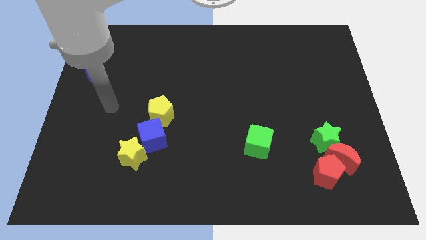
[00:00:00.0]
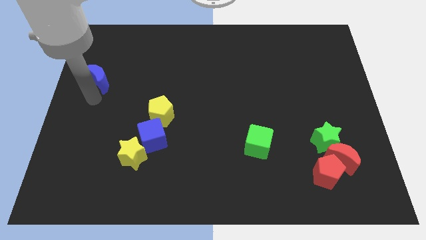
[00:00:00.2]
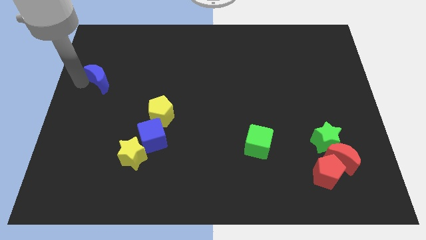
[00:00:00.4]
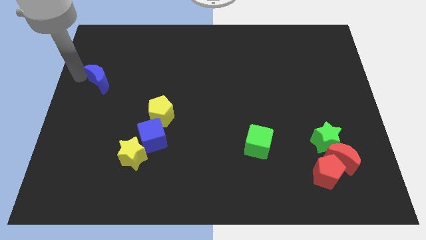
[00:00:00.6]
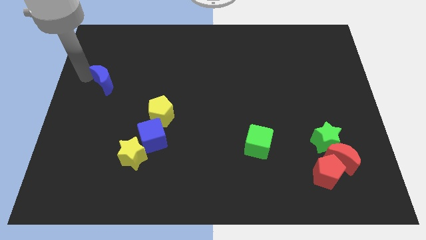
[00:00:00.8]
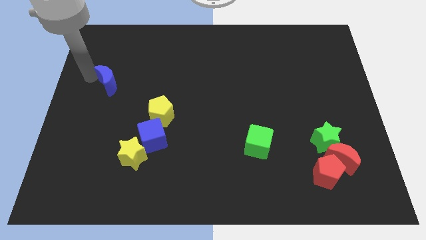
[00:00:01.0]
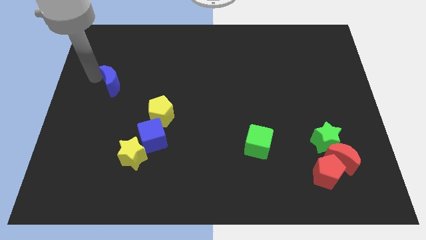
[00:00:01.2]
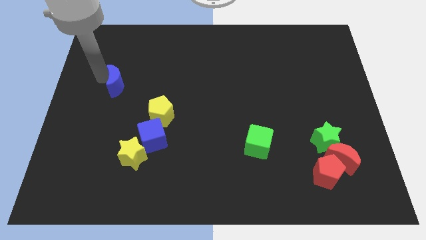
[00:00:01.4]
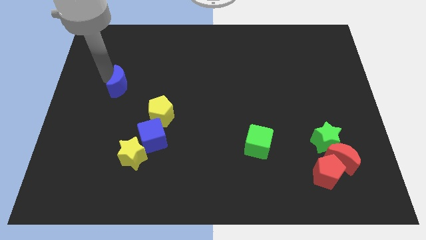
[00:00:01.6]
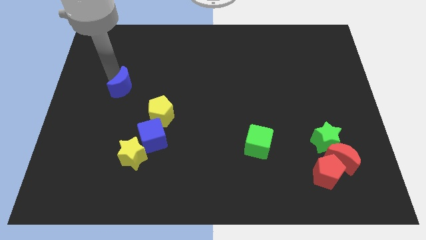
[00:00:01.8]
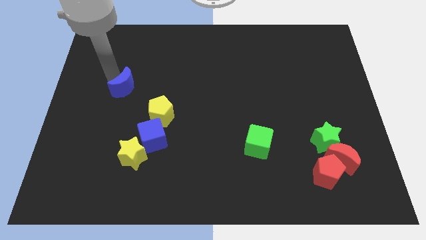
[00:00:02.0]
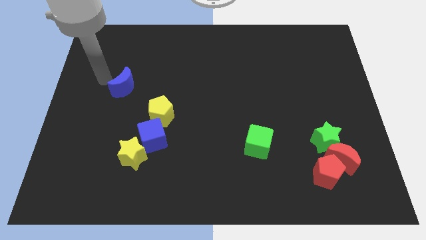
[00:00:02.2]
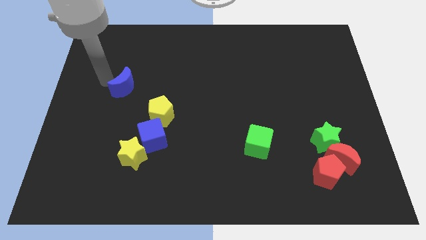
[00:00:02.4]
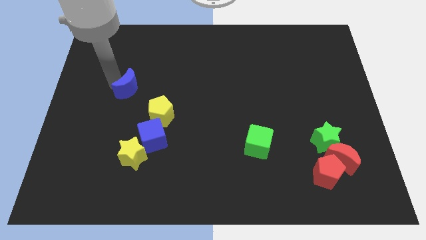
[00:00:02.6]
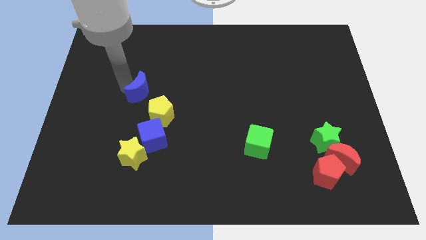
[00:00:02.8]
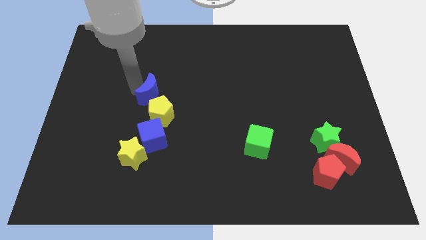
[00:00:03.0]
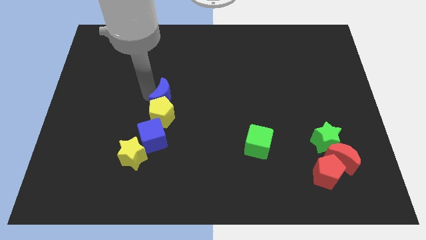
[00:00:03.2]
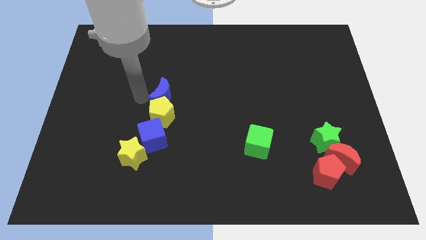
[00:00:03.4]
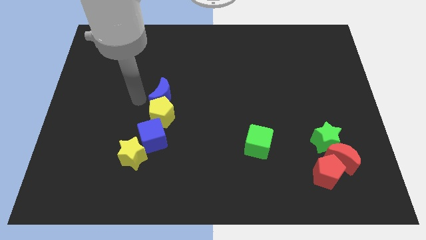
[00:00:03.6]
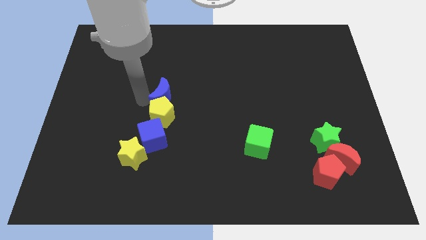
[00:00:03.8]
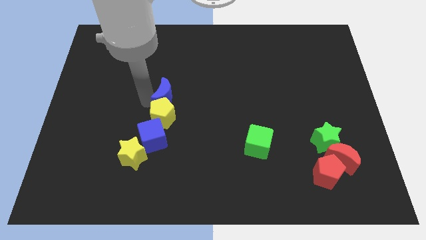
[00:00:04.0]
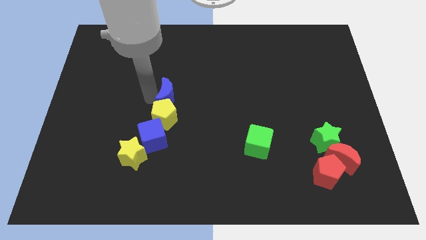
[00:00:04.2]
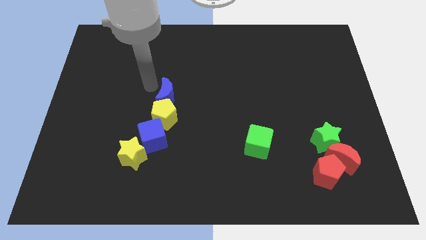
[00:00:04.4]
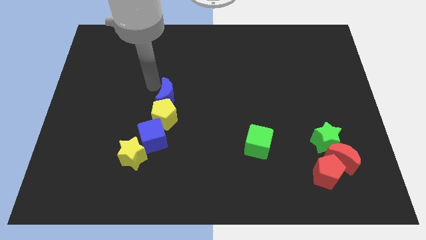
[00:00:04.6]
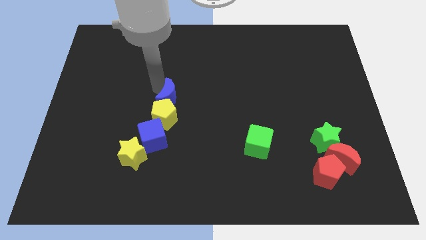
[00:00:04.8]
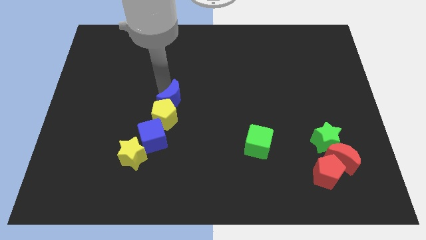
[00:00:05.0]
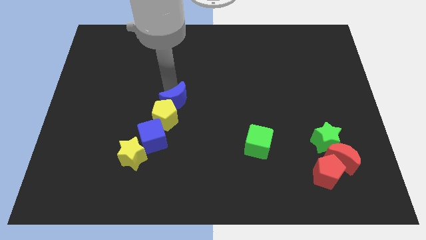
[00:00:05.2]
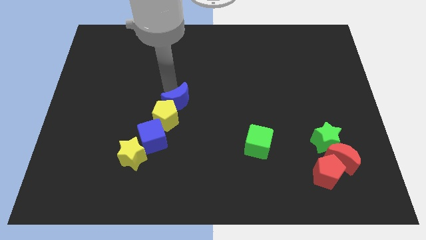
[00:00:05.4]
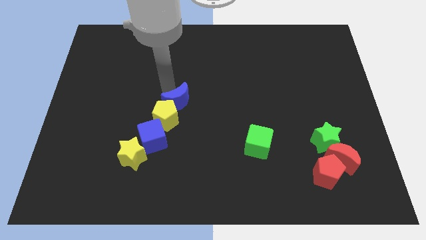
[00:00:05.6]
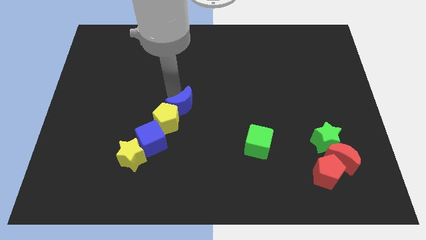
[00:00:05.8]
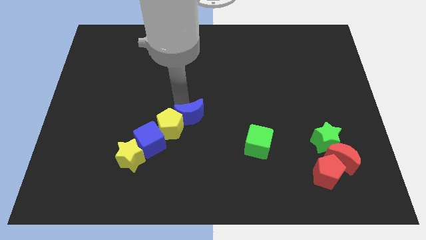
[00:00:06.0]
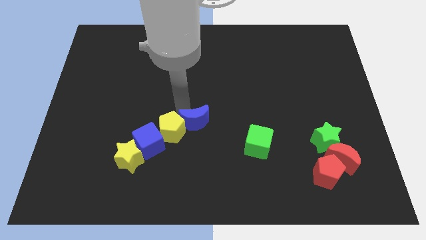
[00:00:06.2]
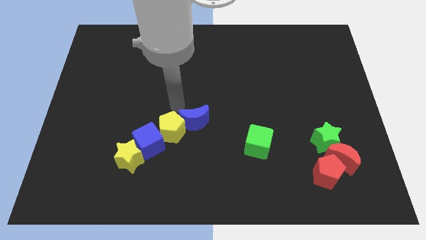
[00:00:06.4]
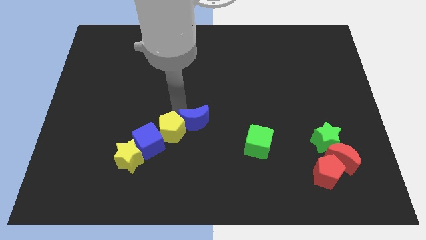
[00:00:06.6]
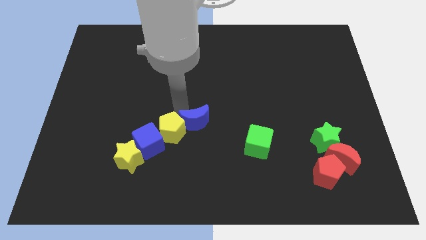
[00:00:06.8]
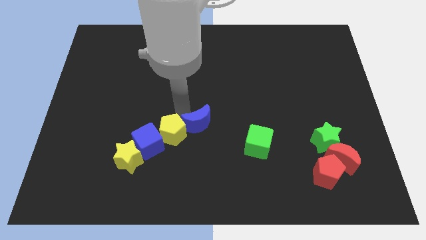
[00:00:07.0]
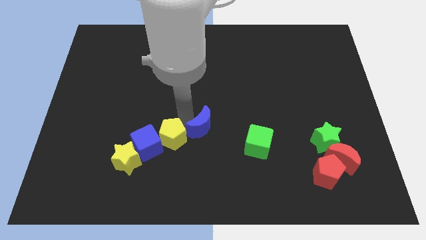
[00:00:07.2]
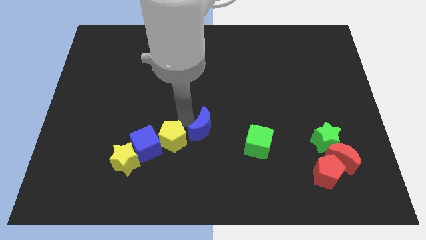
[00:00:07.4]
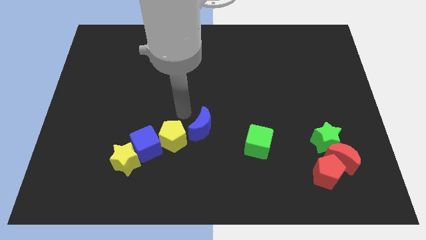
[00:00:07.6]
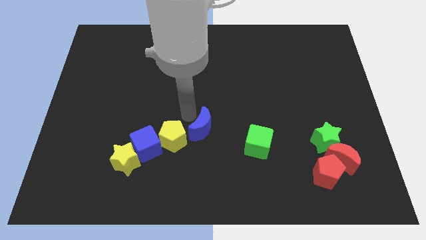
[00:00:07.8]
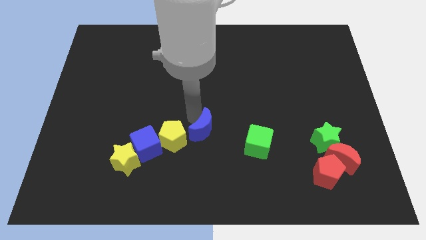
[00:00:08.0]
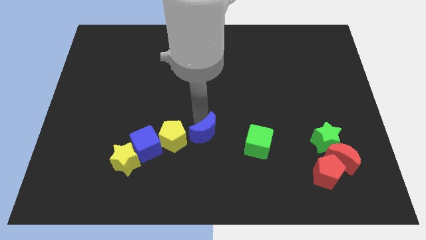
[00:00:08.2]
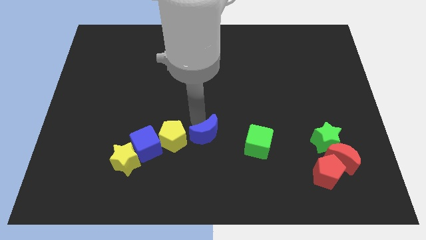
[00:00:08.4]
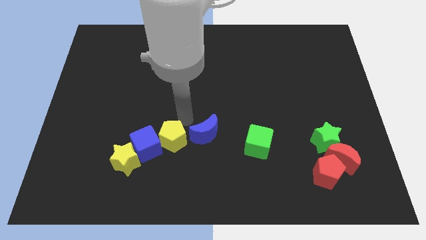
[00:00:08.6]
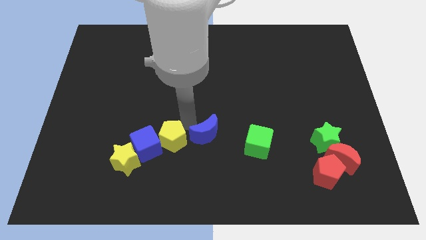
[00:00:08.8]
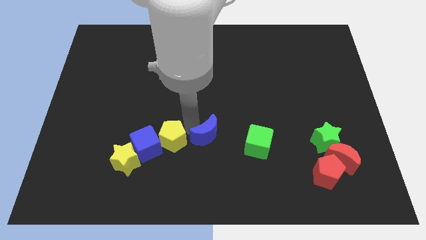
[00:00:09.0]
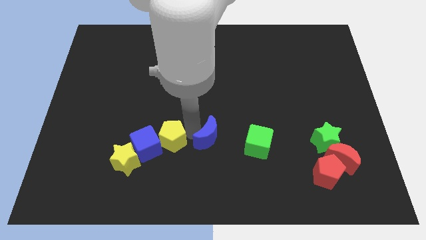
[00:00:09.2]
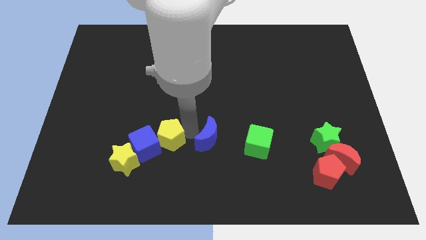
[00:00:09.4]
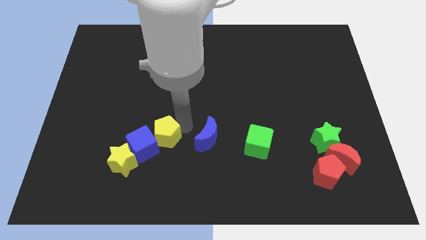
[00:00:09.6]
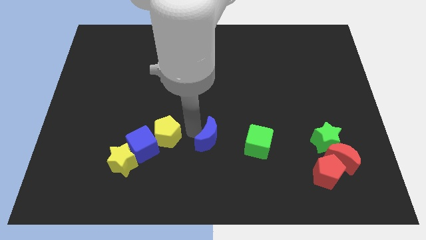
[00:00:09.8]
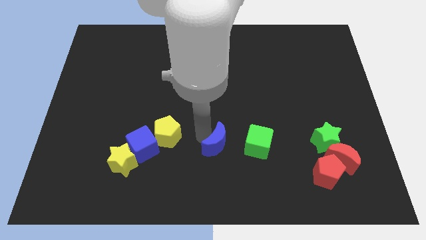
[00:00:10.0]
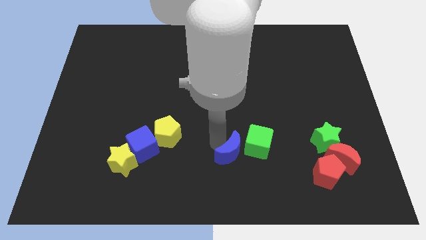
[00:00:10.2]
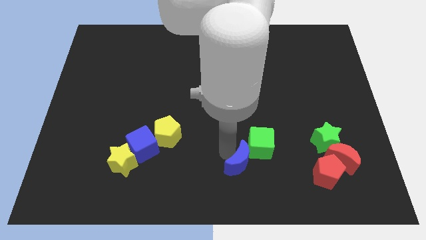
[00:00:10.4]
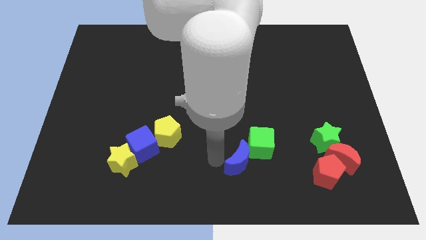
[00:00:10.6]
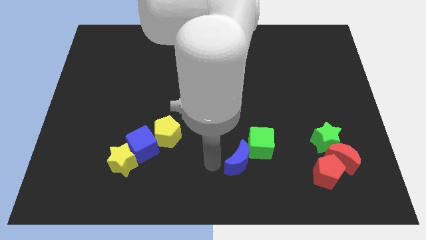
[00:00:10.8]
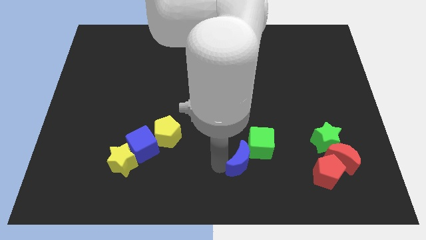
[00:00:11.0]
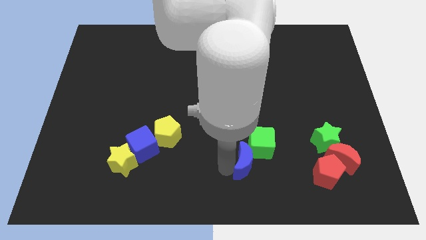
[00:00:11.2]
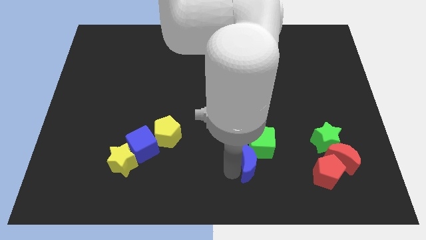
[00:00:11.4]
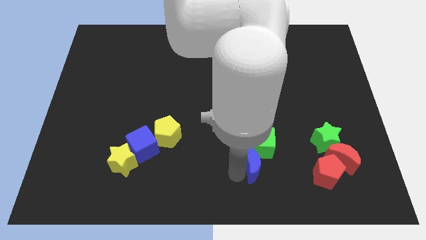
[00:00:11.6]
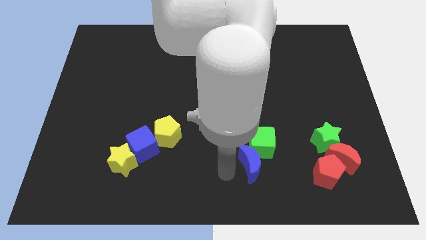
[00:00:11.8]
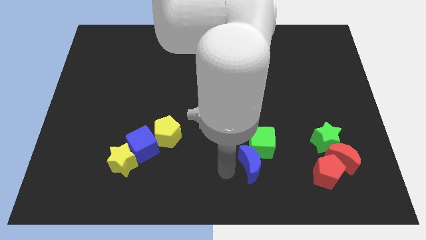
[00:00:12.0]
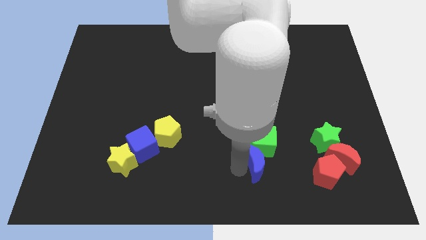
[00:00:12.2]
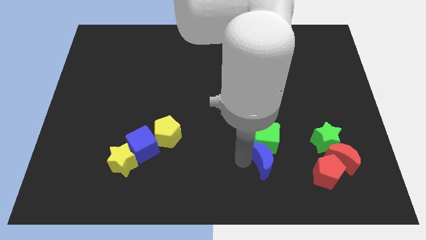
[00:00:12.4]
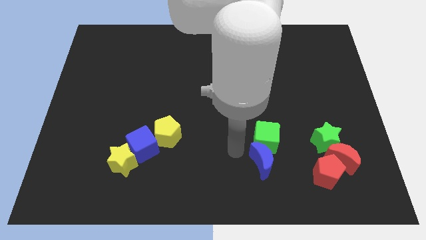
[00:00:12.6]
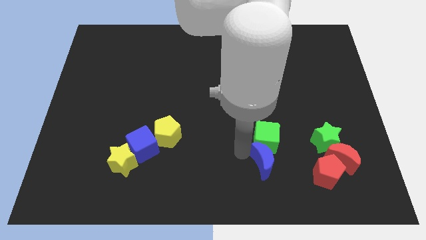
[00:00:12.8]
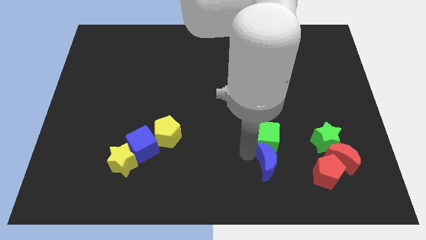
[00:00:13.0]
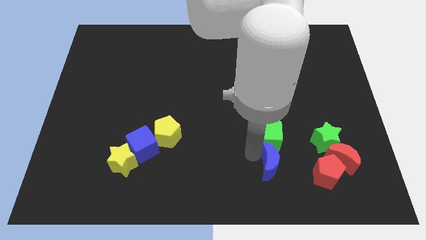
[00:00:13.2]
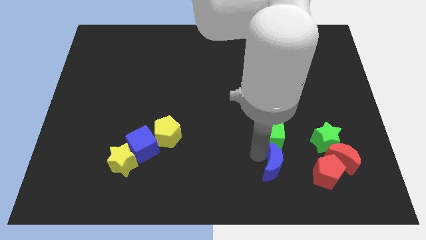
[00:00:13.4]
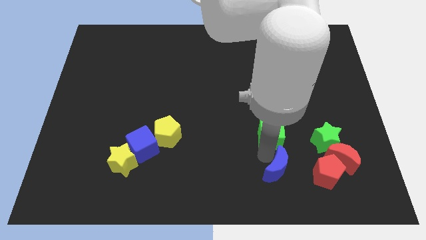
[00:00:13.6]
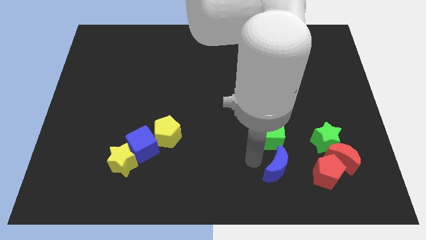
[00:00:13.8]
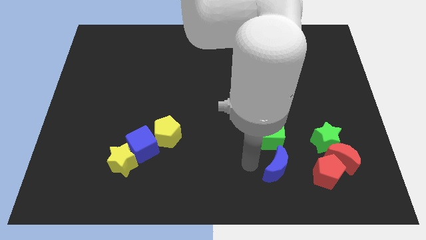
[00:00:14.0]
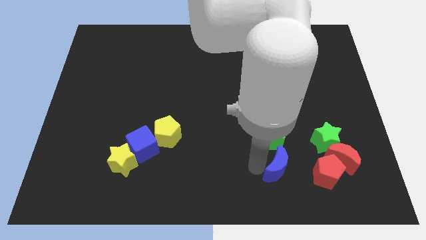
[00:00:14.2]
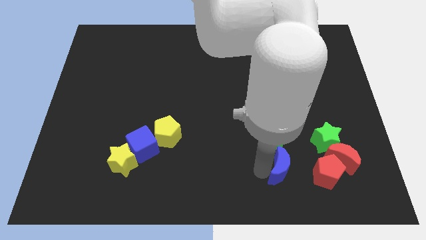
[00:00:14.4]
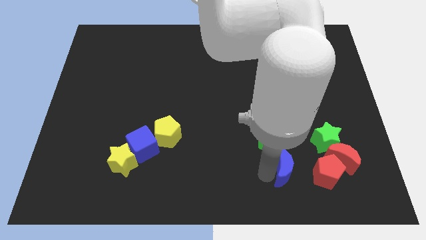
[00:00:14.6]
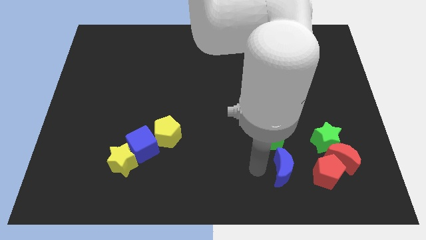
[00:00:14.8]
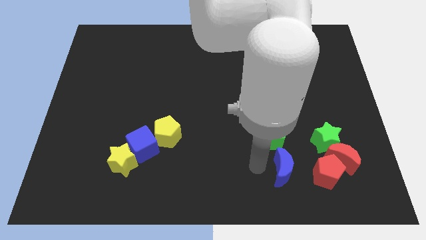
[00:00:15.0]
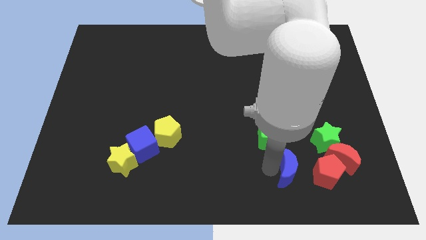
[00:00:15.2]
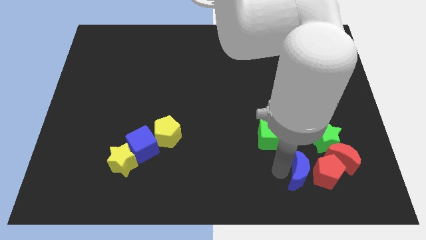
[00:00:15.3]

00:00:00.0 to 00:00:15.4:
push the blue moon towards the red pentagon
